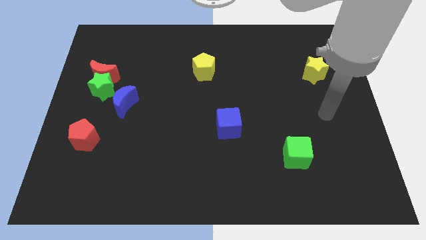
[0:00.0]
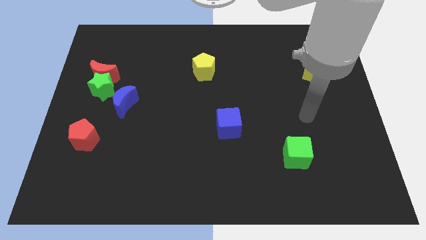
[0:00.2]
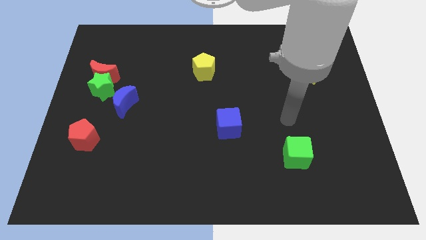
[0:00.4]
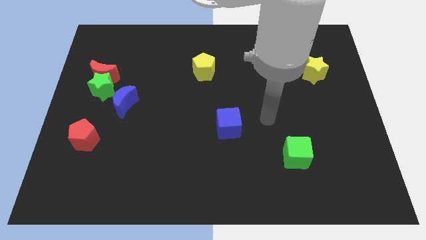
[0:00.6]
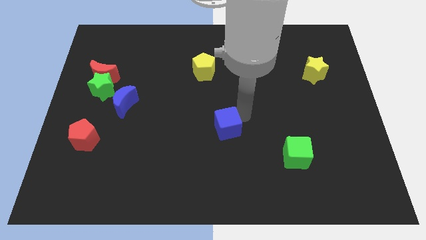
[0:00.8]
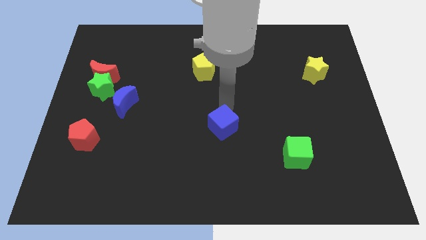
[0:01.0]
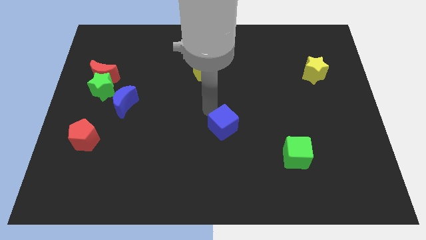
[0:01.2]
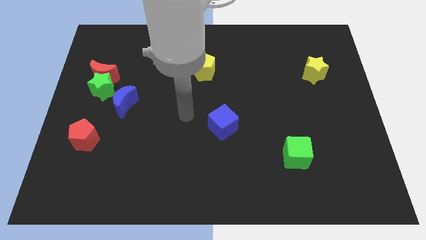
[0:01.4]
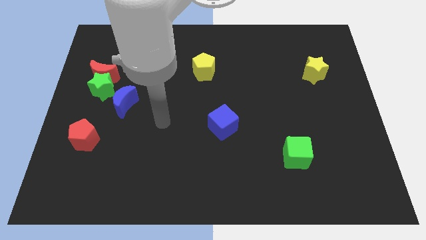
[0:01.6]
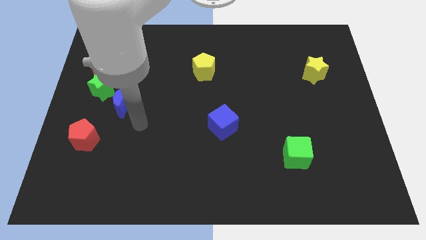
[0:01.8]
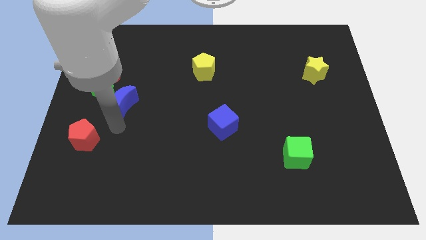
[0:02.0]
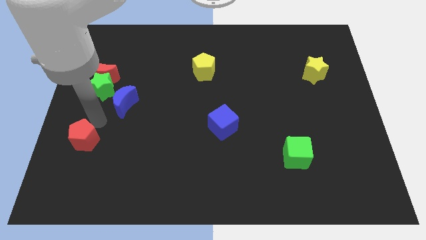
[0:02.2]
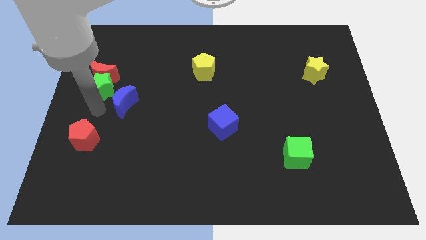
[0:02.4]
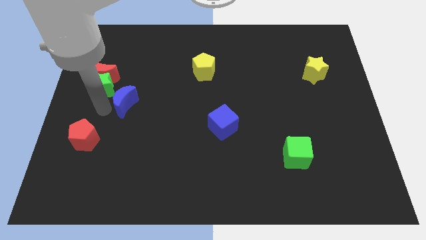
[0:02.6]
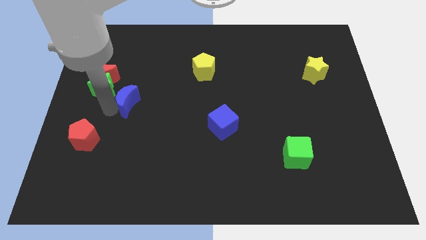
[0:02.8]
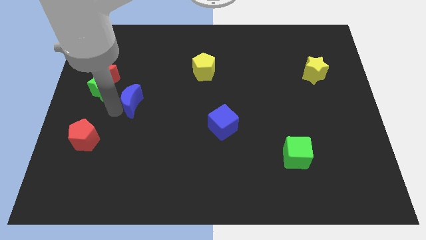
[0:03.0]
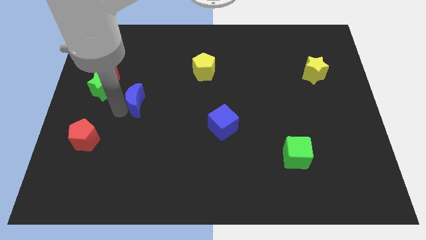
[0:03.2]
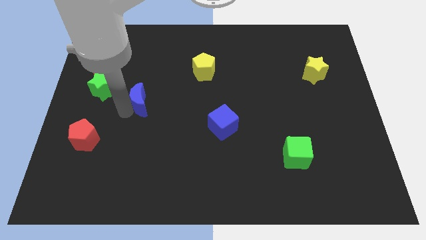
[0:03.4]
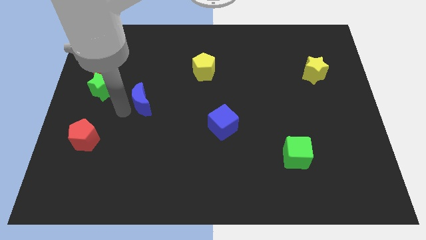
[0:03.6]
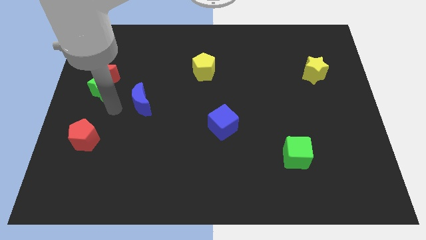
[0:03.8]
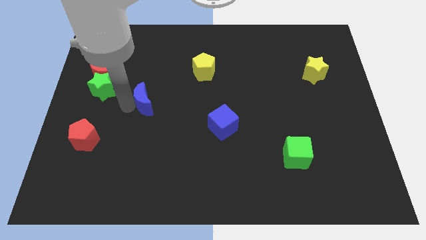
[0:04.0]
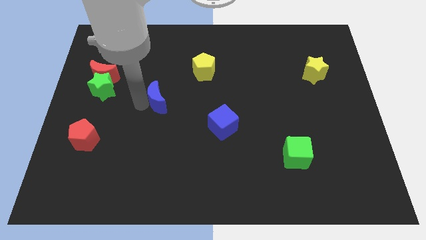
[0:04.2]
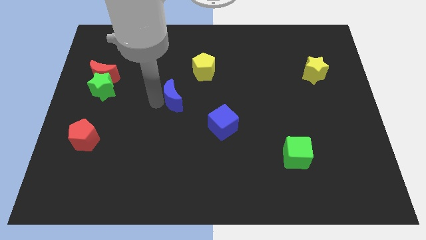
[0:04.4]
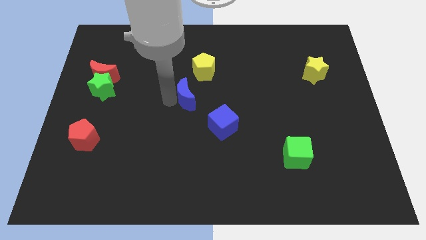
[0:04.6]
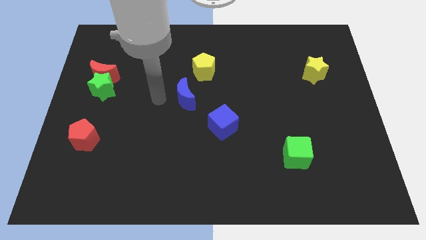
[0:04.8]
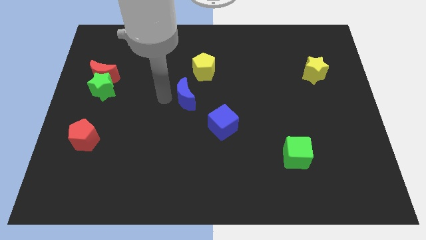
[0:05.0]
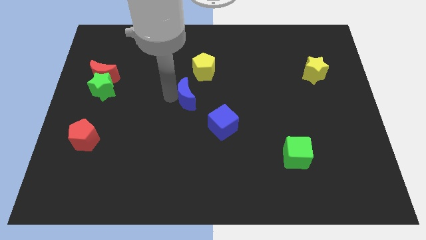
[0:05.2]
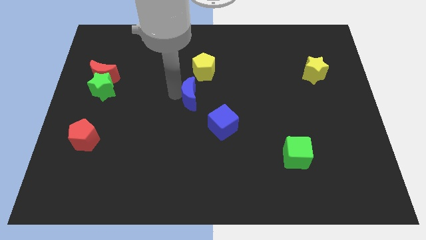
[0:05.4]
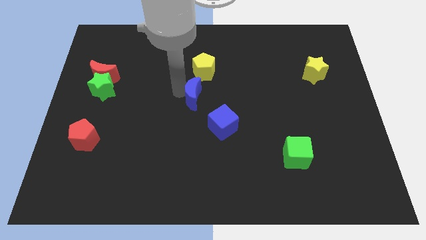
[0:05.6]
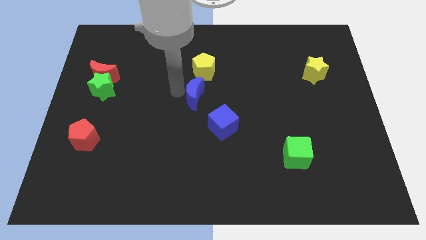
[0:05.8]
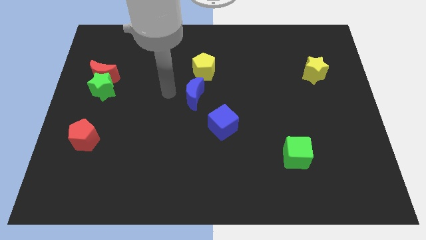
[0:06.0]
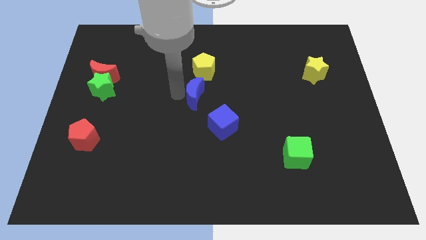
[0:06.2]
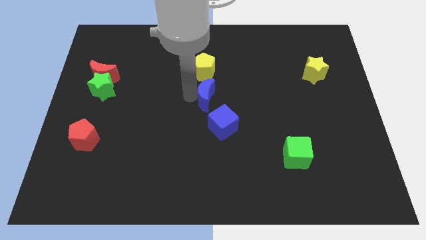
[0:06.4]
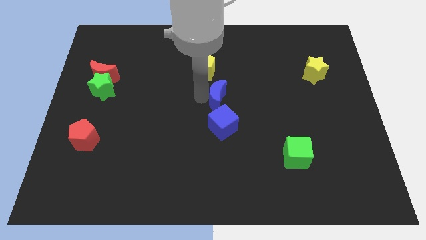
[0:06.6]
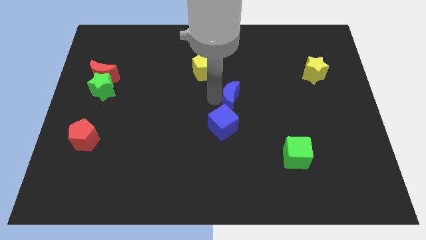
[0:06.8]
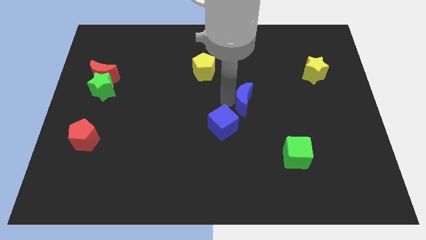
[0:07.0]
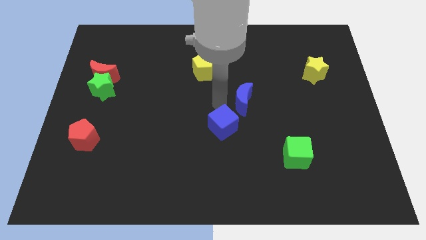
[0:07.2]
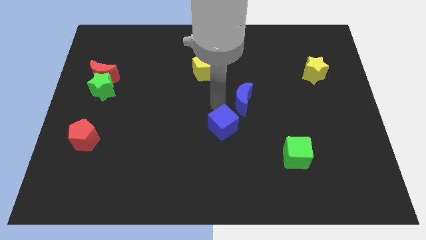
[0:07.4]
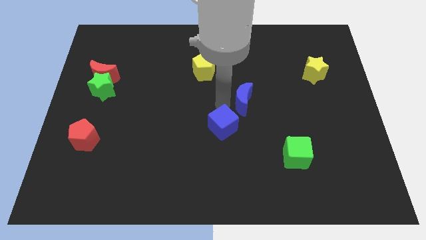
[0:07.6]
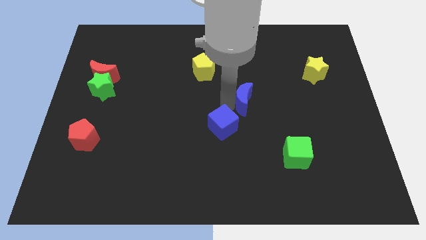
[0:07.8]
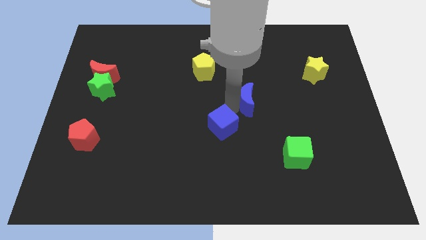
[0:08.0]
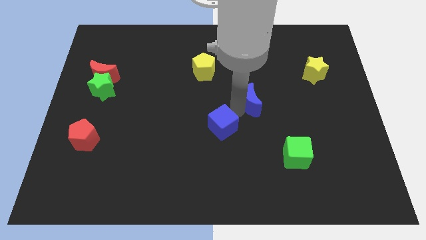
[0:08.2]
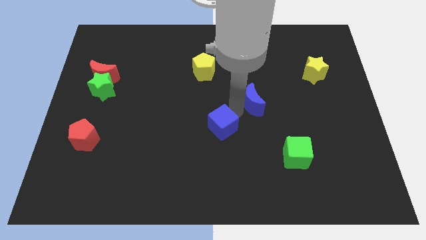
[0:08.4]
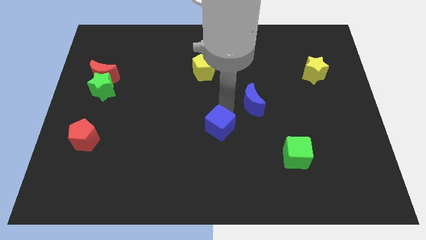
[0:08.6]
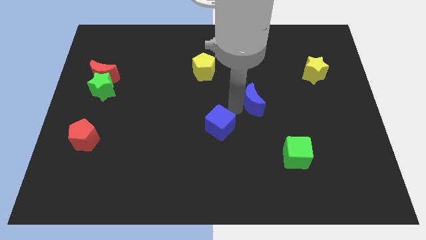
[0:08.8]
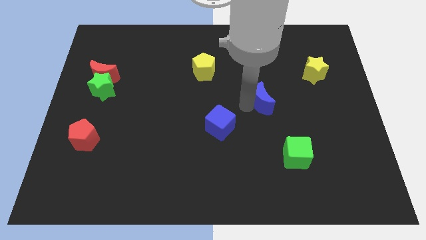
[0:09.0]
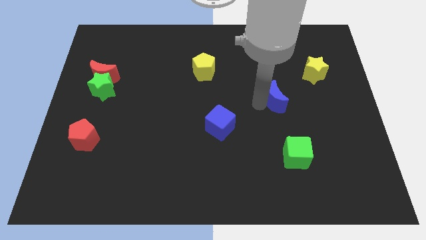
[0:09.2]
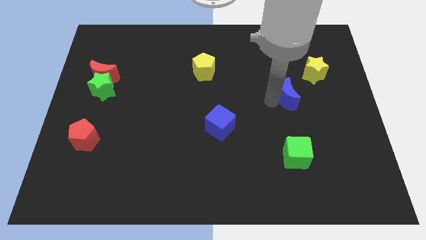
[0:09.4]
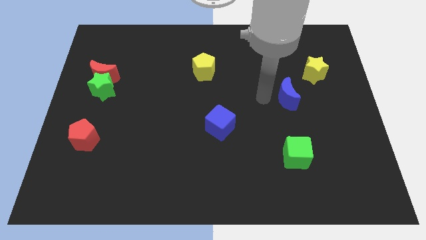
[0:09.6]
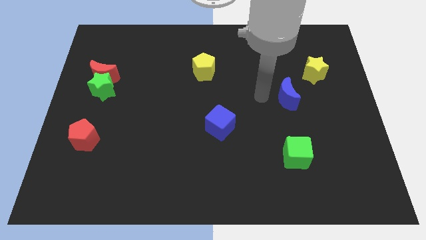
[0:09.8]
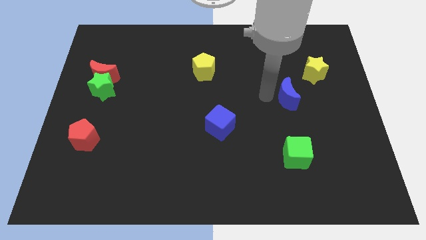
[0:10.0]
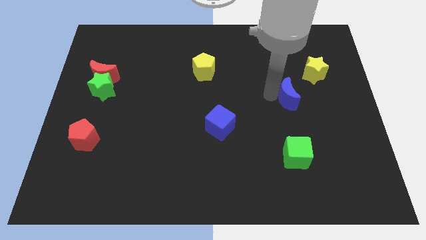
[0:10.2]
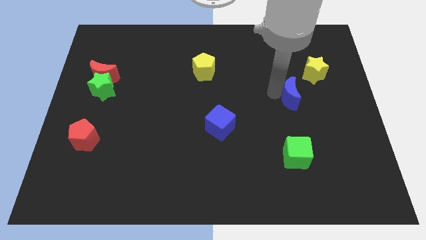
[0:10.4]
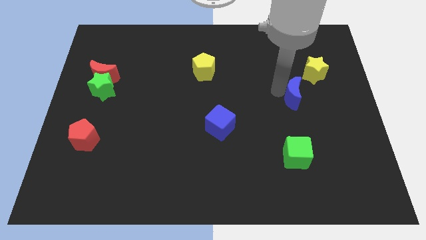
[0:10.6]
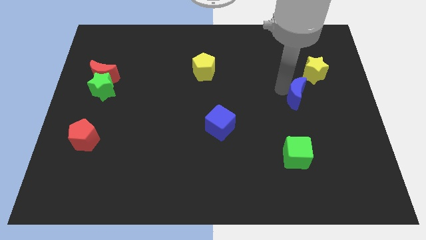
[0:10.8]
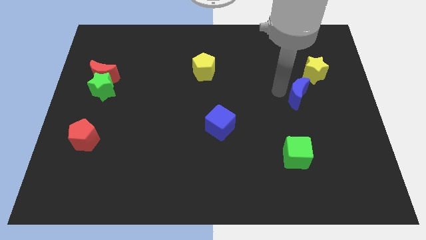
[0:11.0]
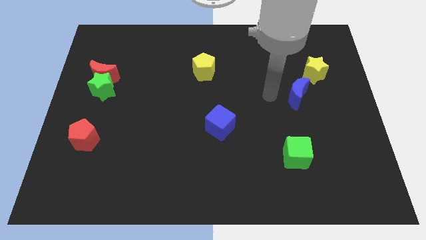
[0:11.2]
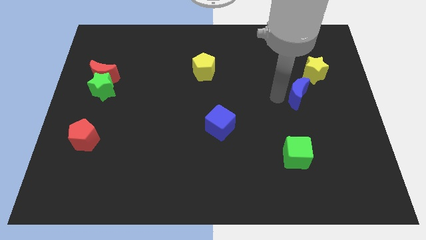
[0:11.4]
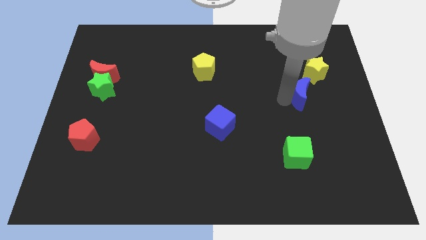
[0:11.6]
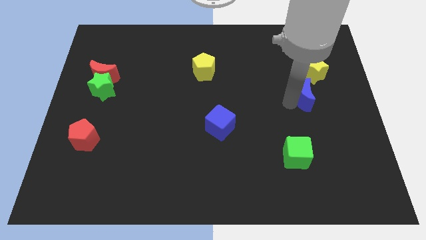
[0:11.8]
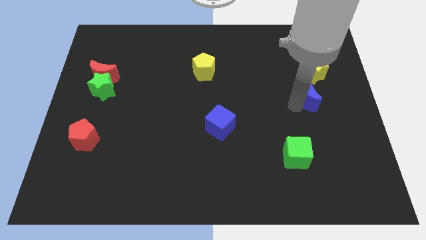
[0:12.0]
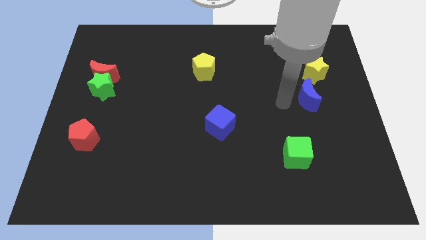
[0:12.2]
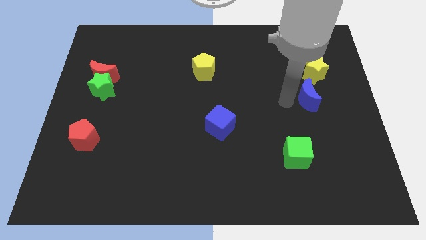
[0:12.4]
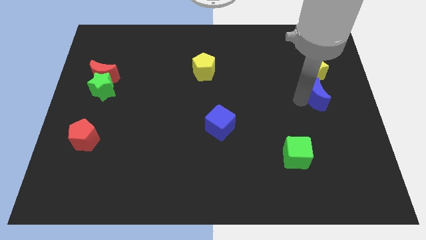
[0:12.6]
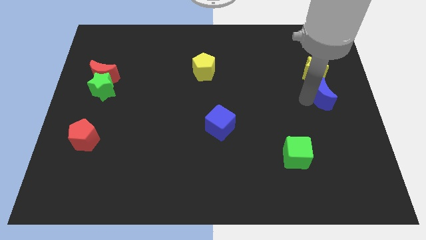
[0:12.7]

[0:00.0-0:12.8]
move the blue moon to the center right

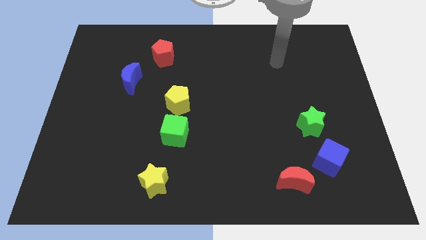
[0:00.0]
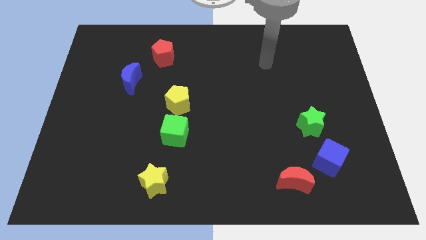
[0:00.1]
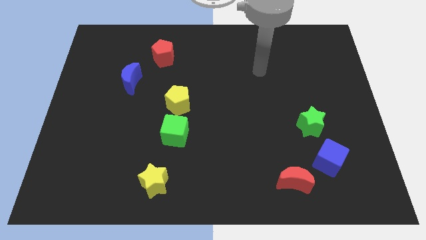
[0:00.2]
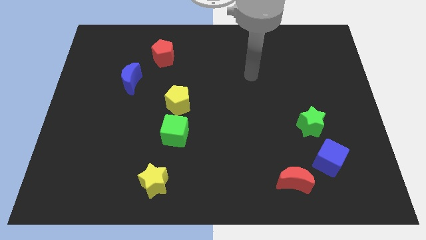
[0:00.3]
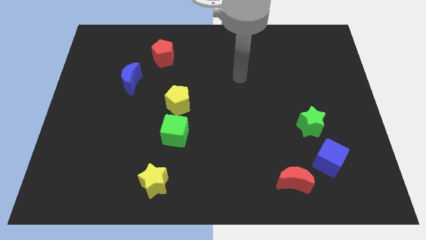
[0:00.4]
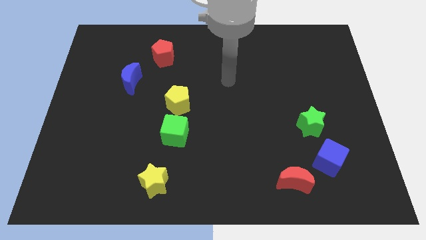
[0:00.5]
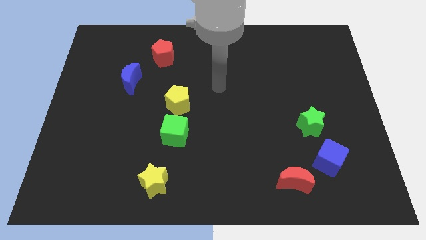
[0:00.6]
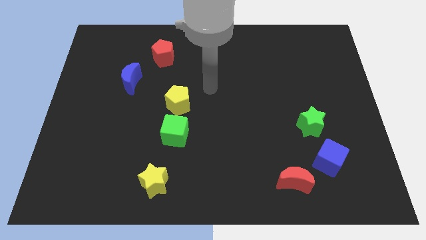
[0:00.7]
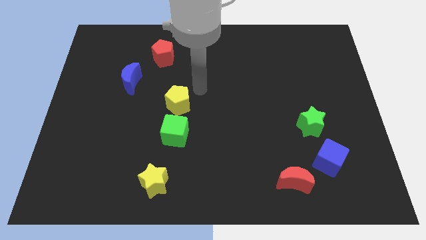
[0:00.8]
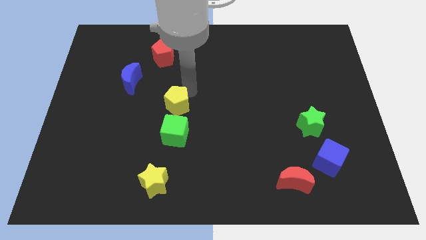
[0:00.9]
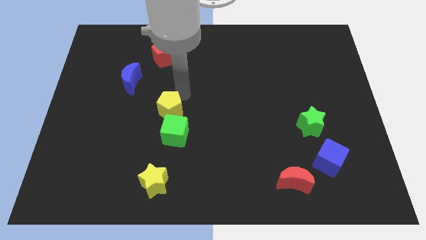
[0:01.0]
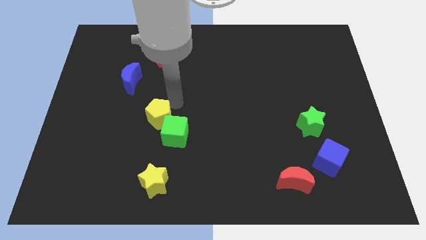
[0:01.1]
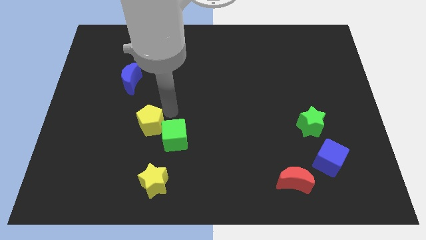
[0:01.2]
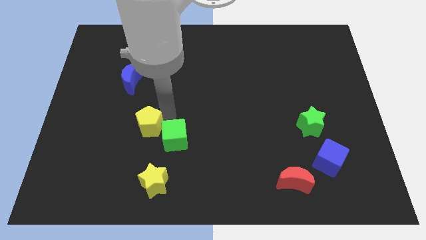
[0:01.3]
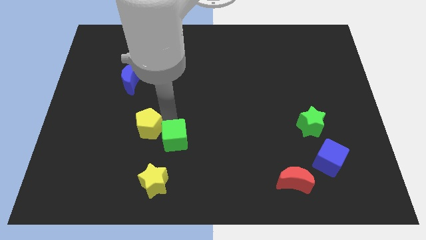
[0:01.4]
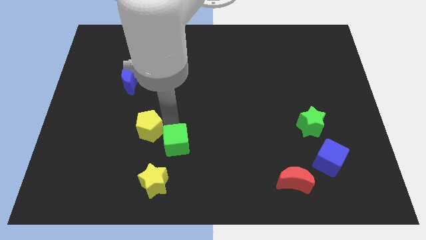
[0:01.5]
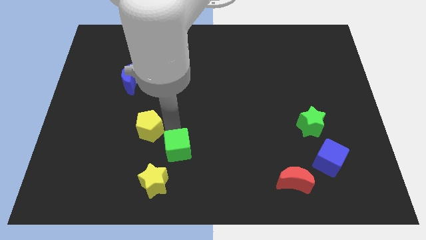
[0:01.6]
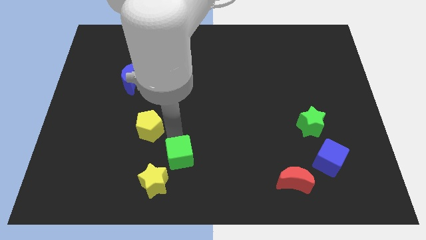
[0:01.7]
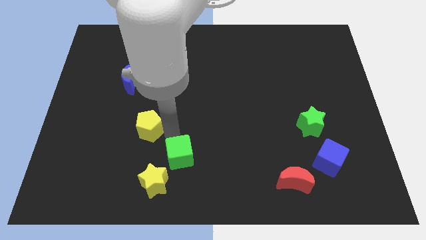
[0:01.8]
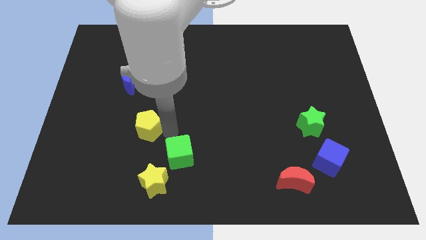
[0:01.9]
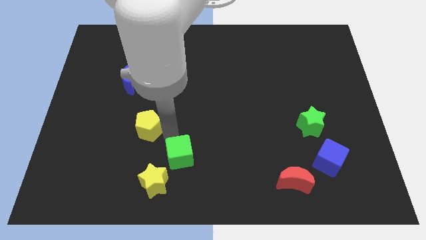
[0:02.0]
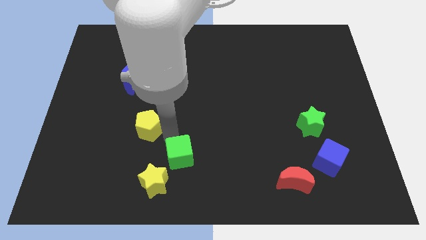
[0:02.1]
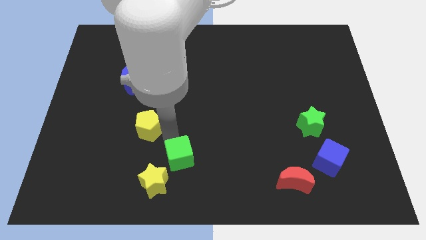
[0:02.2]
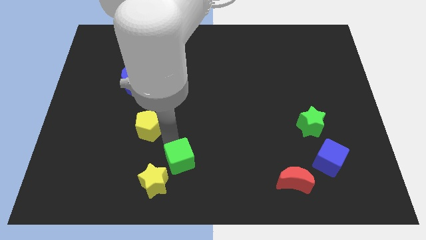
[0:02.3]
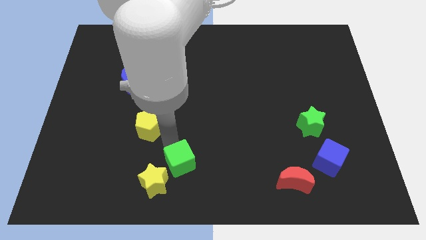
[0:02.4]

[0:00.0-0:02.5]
push the green cube to the bottom side
